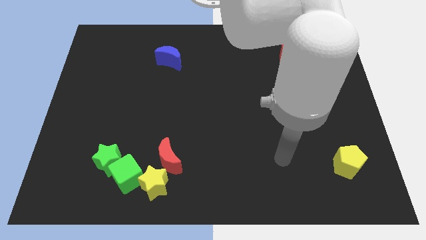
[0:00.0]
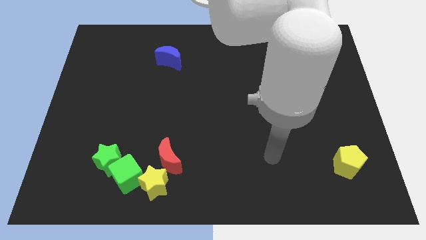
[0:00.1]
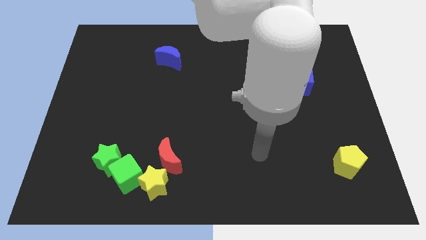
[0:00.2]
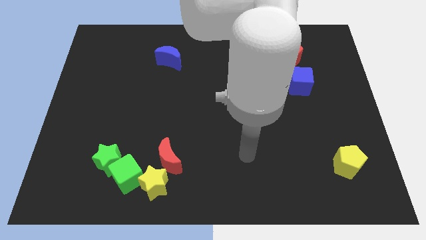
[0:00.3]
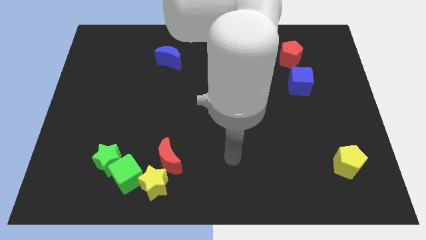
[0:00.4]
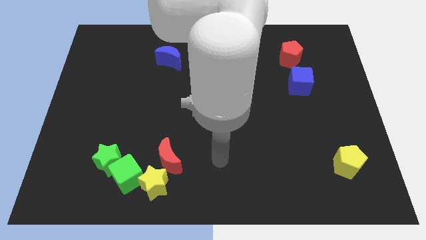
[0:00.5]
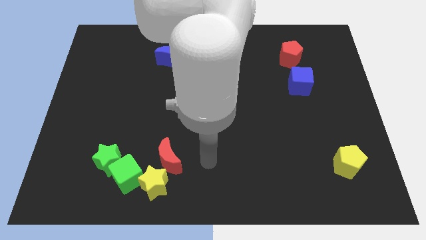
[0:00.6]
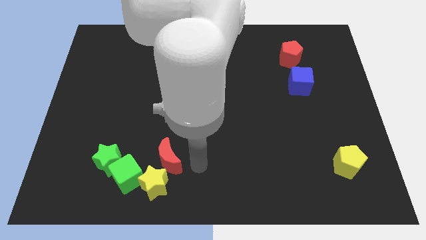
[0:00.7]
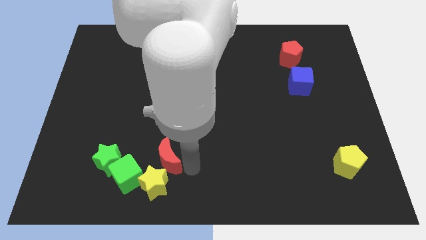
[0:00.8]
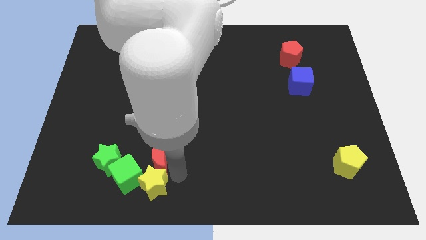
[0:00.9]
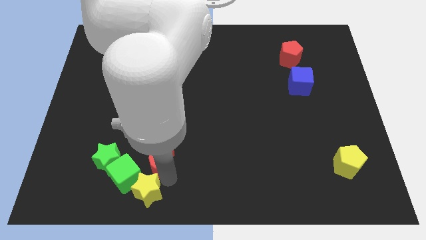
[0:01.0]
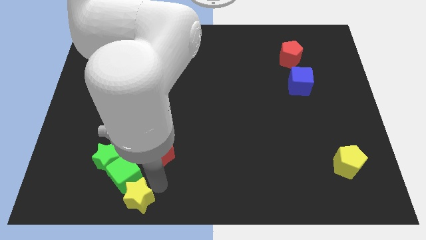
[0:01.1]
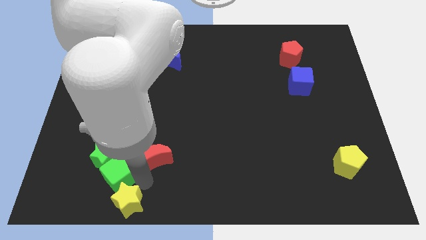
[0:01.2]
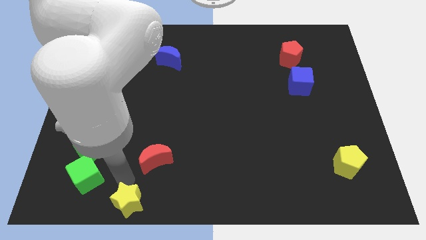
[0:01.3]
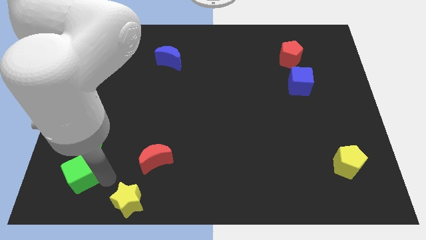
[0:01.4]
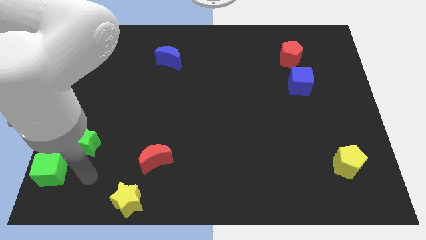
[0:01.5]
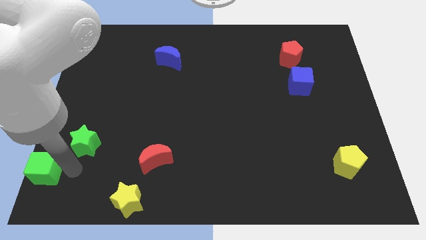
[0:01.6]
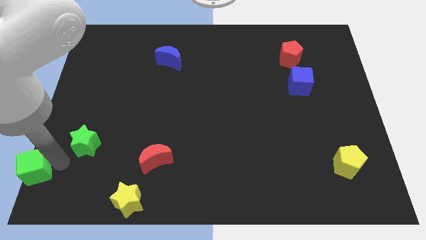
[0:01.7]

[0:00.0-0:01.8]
move the green star away from the green cube

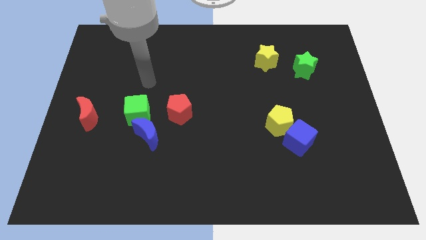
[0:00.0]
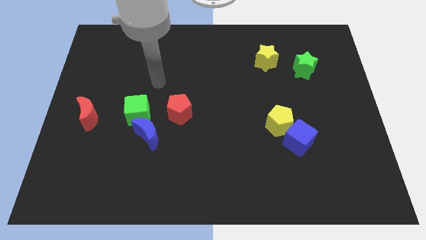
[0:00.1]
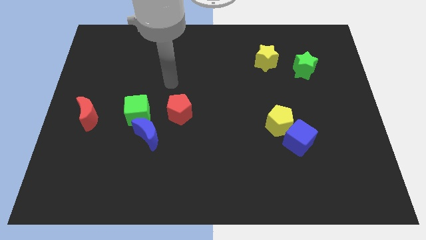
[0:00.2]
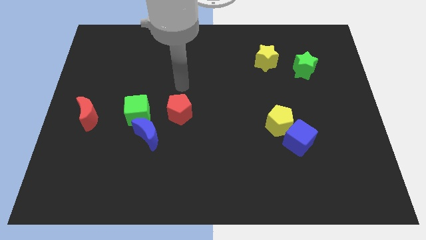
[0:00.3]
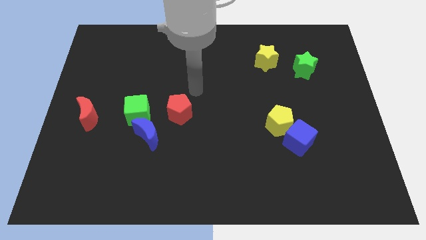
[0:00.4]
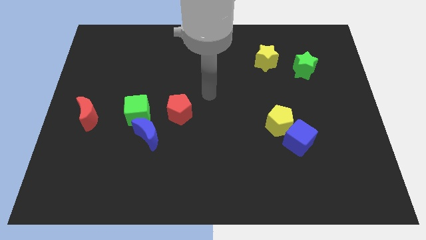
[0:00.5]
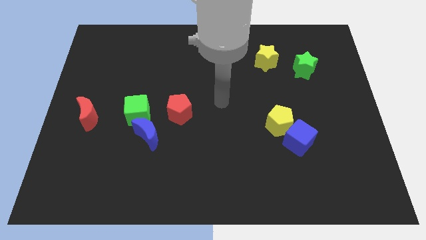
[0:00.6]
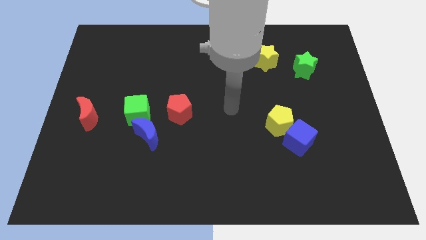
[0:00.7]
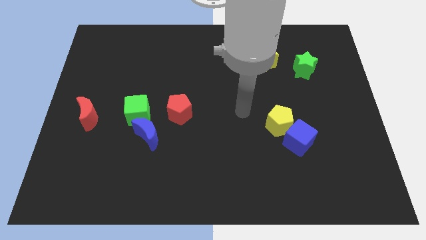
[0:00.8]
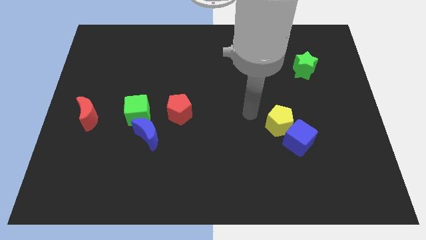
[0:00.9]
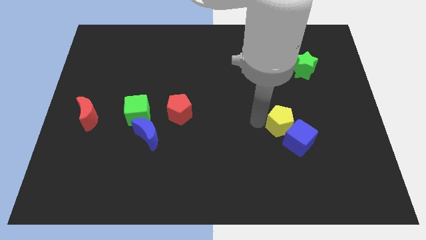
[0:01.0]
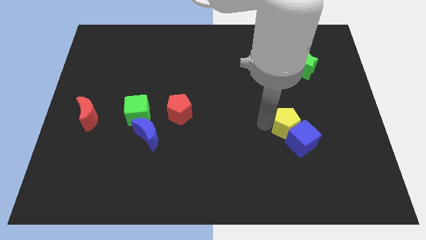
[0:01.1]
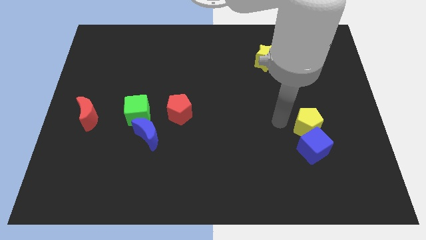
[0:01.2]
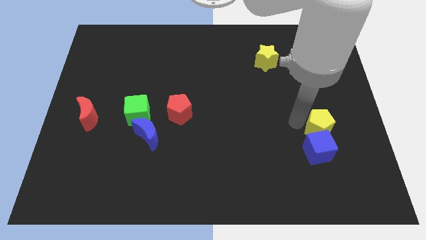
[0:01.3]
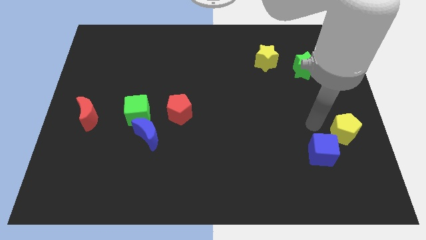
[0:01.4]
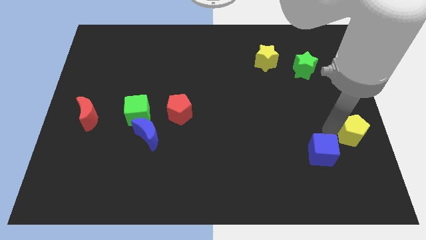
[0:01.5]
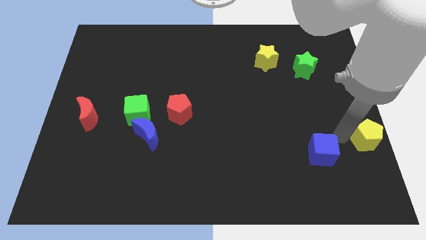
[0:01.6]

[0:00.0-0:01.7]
move the blue cube away from the yellow pentagon

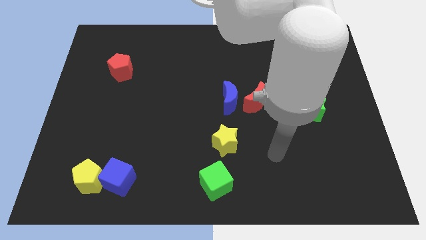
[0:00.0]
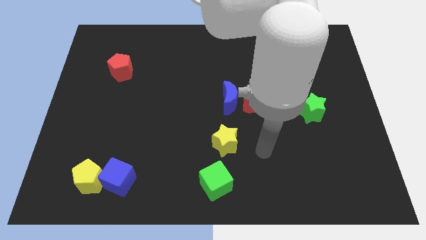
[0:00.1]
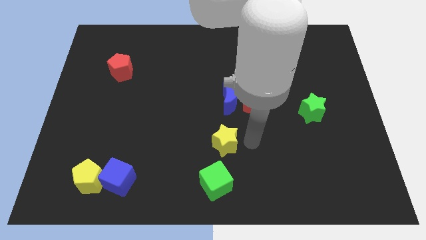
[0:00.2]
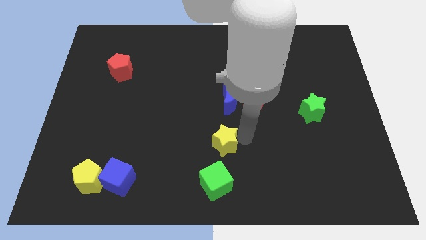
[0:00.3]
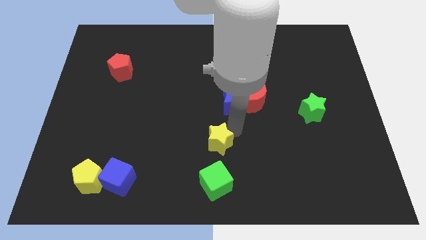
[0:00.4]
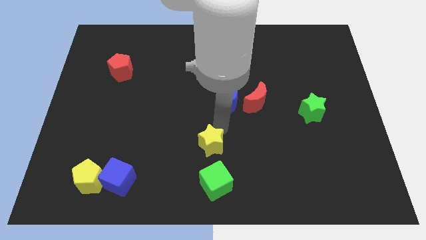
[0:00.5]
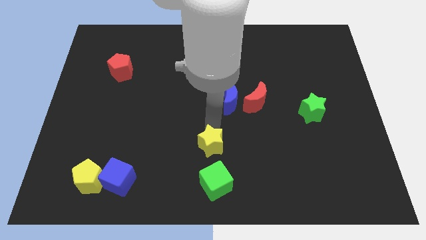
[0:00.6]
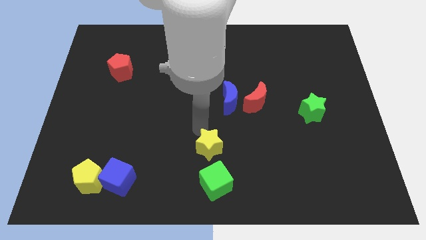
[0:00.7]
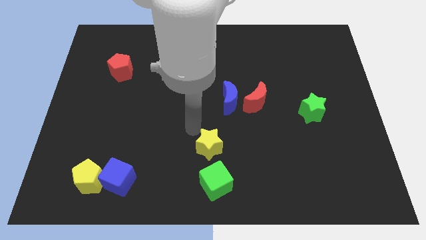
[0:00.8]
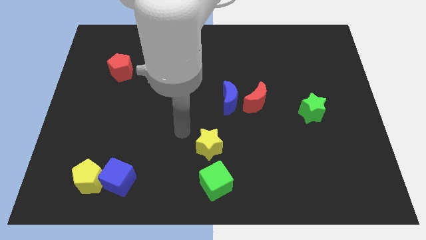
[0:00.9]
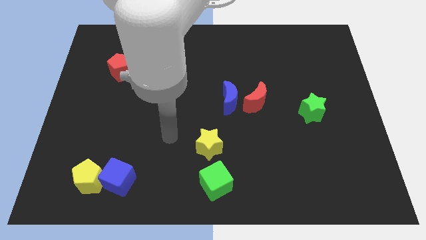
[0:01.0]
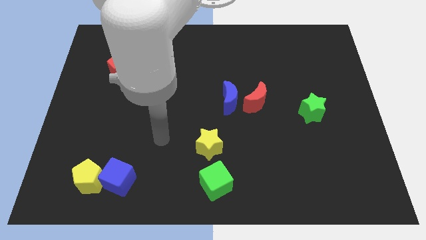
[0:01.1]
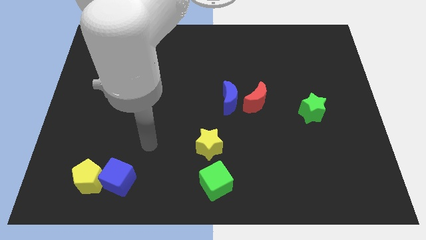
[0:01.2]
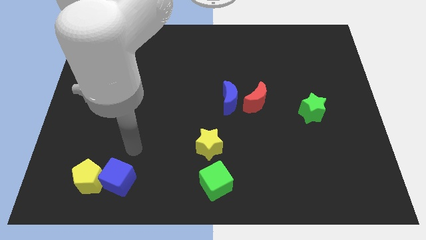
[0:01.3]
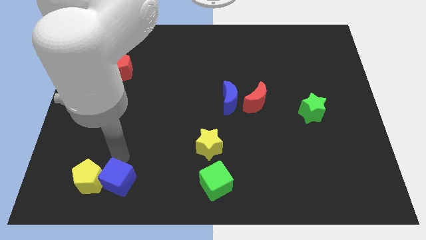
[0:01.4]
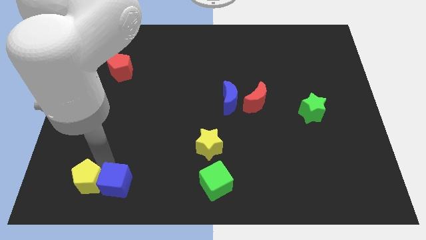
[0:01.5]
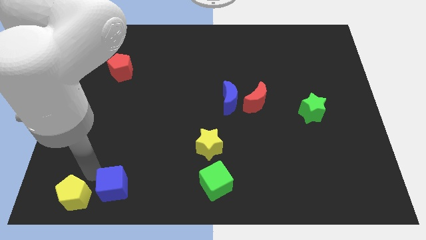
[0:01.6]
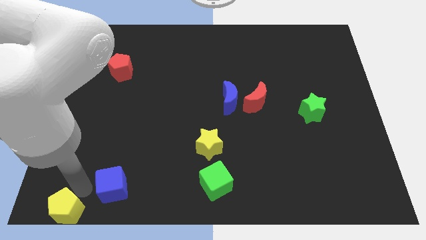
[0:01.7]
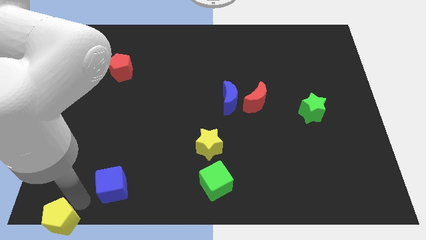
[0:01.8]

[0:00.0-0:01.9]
pull the blue cube apart from the yellow pentagon

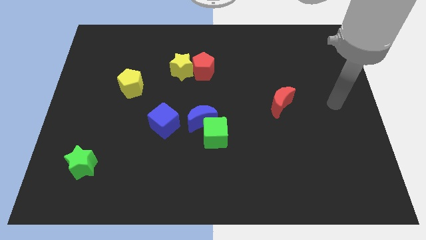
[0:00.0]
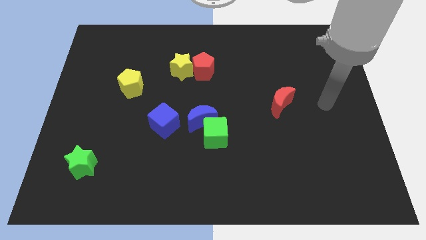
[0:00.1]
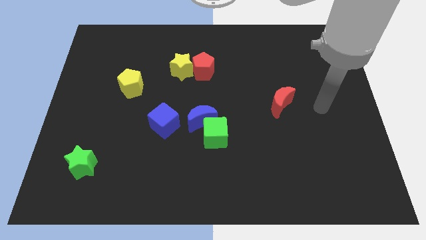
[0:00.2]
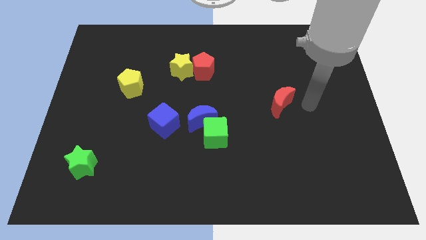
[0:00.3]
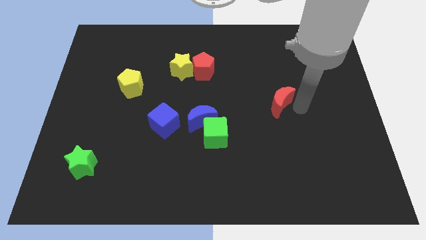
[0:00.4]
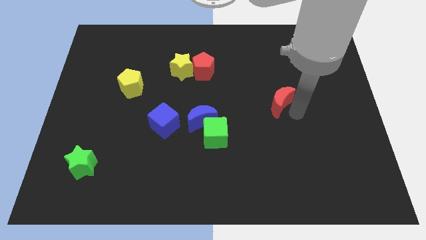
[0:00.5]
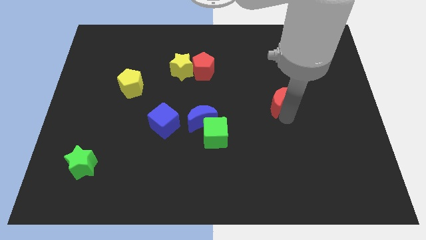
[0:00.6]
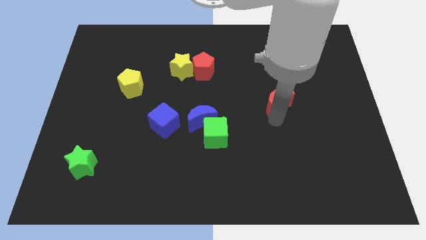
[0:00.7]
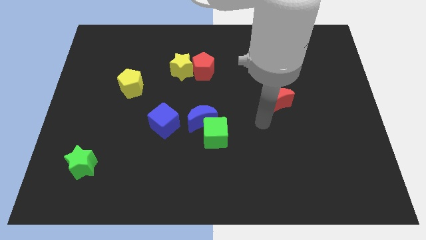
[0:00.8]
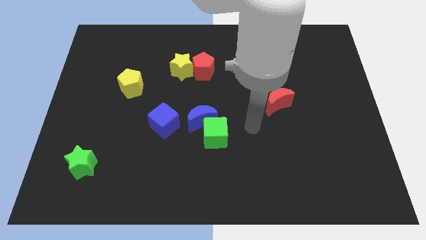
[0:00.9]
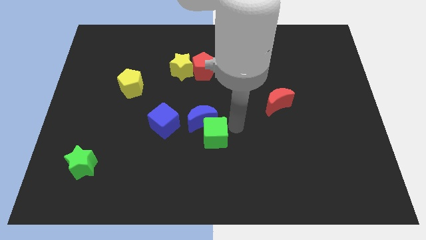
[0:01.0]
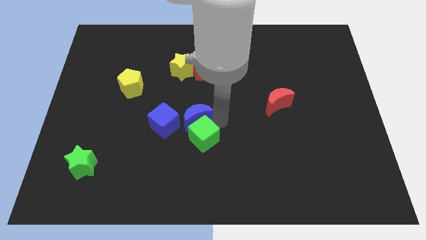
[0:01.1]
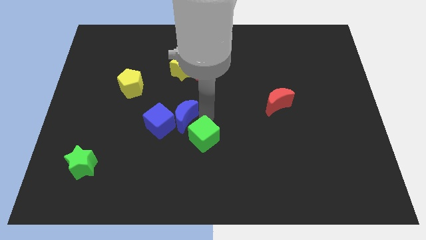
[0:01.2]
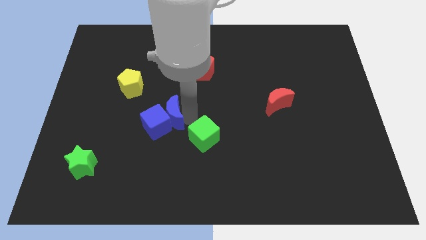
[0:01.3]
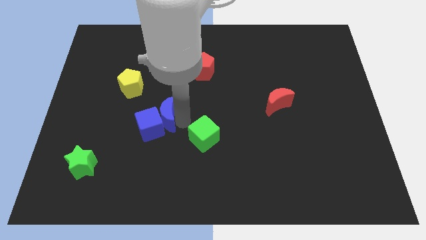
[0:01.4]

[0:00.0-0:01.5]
move the green cube away from the blue moon

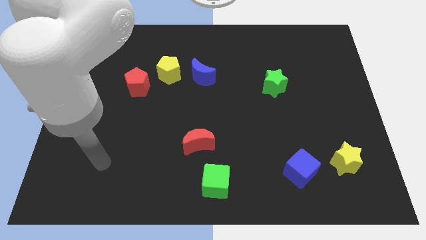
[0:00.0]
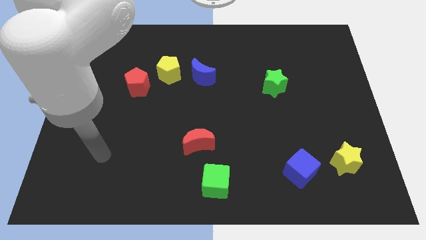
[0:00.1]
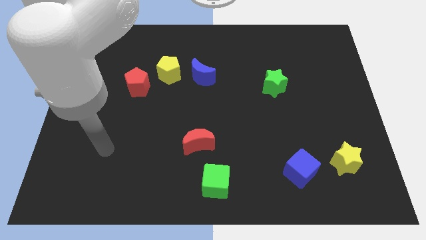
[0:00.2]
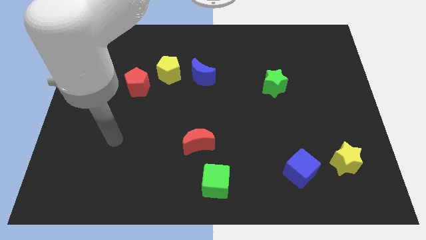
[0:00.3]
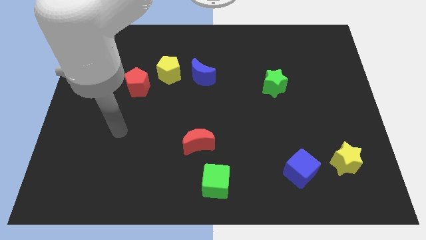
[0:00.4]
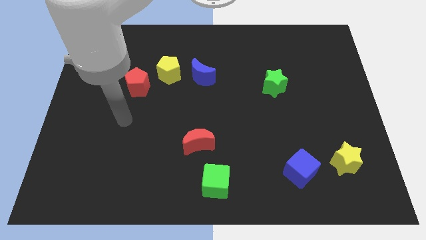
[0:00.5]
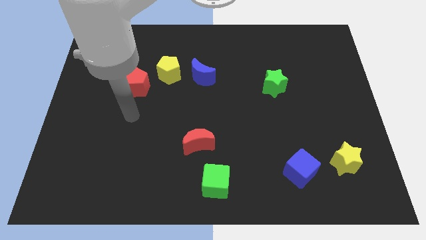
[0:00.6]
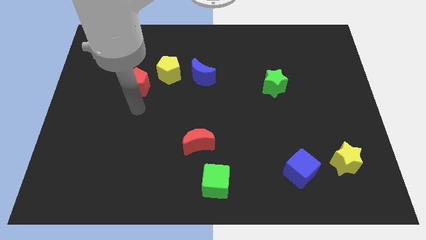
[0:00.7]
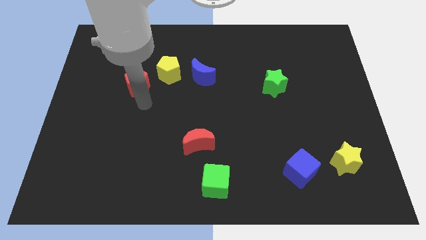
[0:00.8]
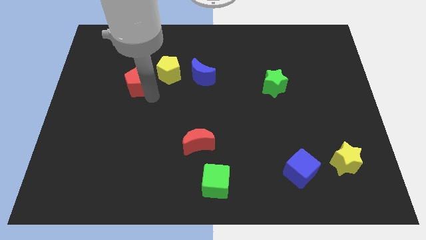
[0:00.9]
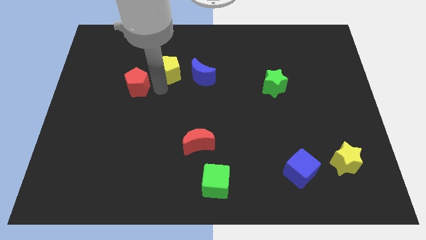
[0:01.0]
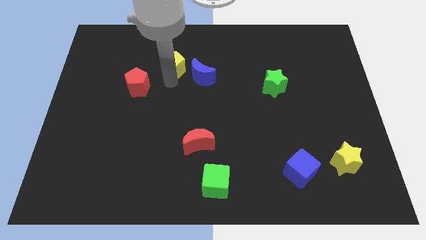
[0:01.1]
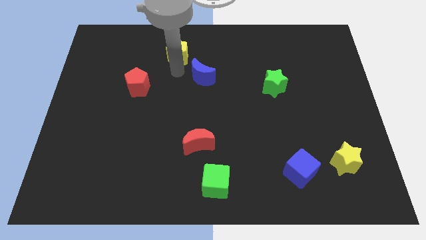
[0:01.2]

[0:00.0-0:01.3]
separate the blue moon from the yellow pentagon

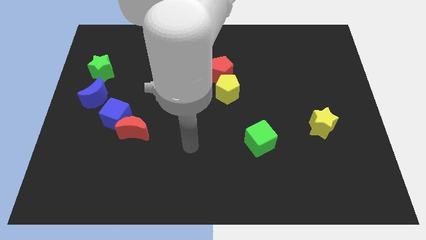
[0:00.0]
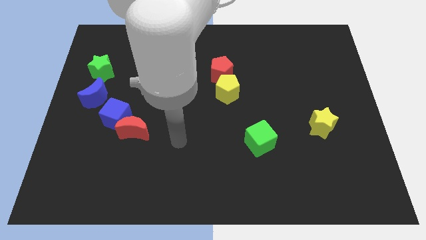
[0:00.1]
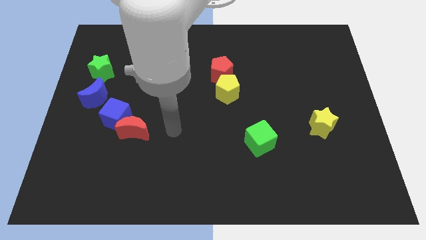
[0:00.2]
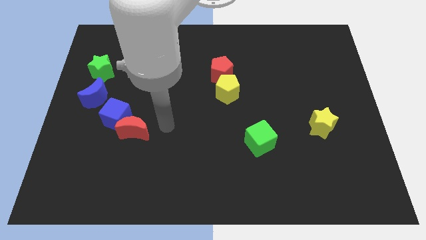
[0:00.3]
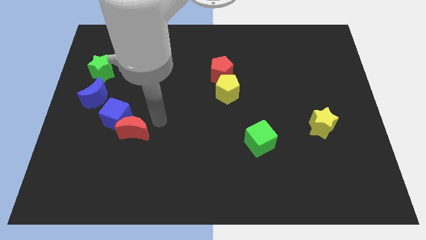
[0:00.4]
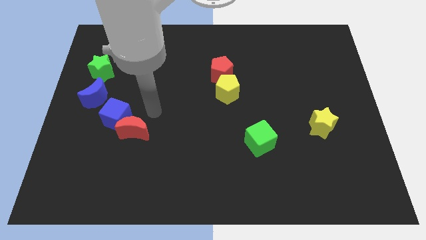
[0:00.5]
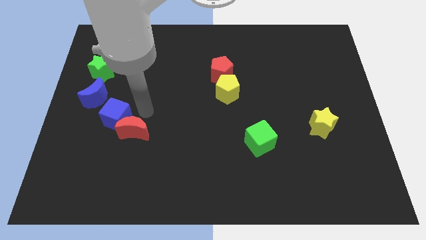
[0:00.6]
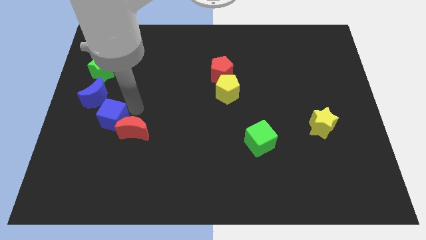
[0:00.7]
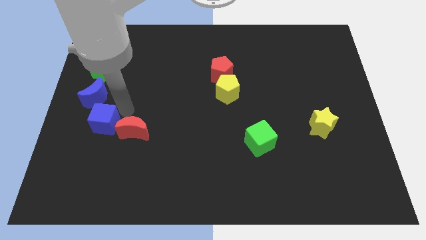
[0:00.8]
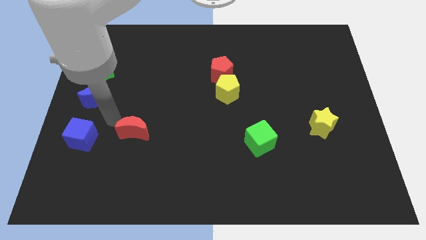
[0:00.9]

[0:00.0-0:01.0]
move the red moon away from the blue cube

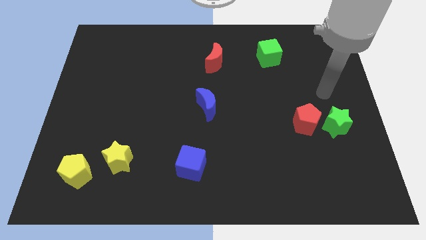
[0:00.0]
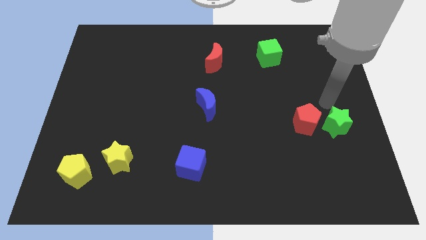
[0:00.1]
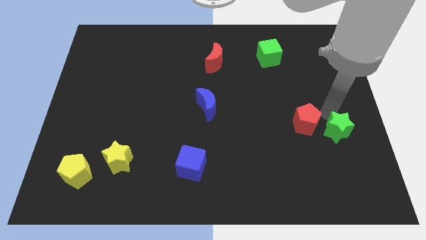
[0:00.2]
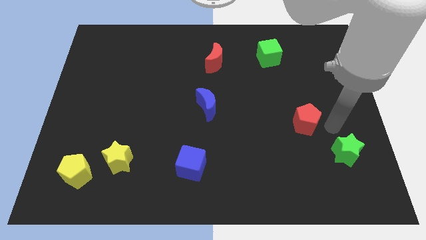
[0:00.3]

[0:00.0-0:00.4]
separate the red pentagon from the green star
